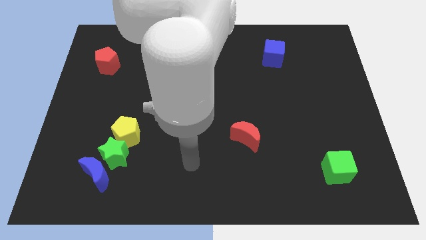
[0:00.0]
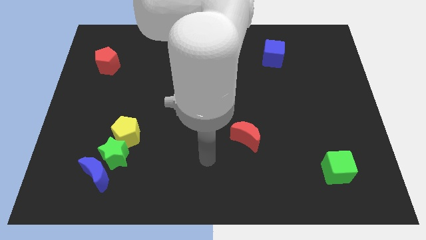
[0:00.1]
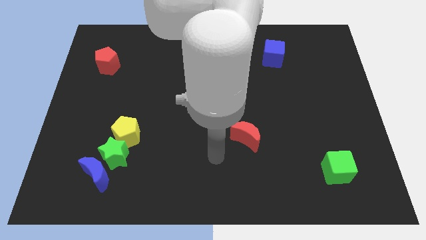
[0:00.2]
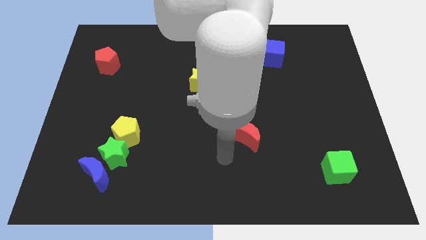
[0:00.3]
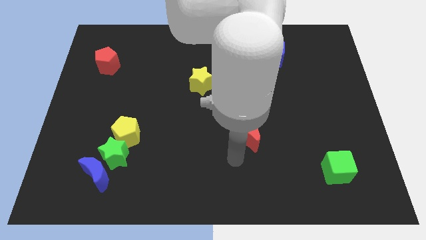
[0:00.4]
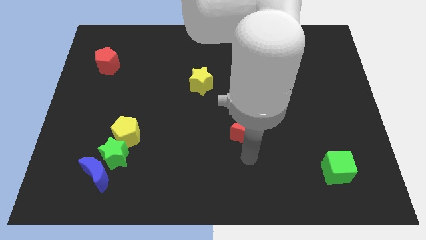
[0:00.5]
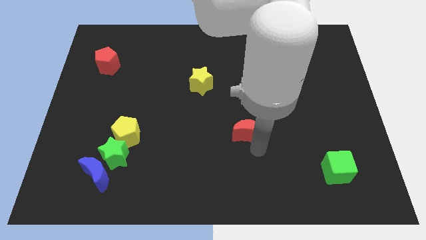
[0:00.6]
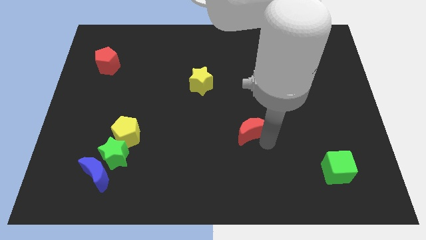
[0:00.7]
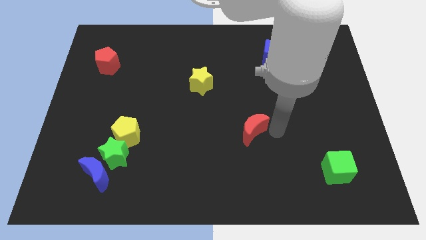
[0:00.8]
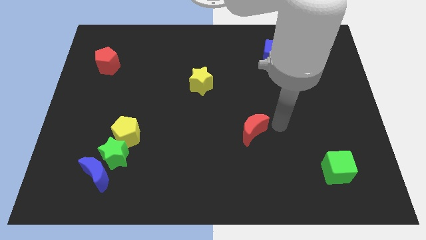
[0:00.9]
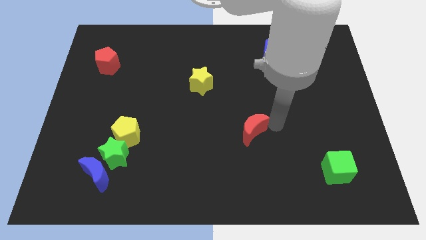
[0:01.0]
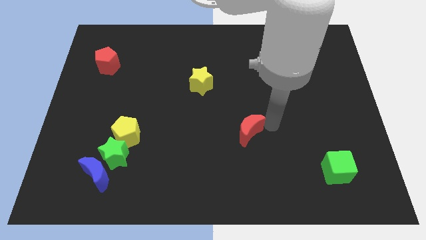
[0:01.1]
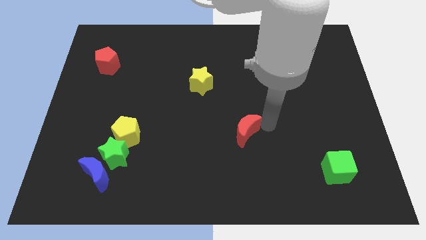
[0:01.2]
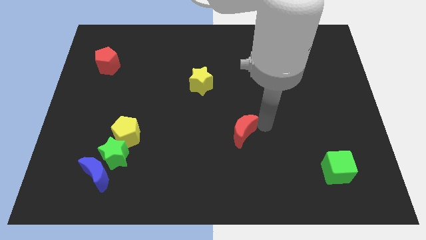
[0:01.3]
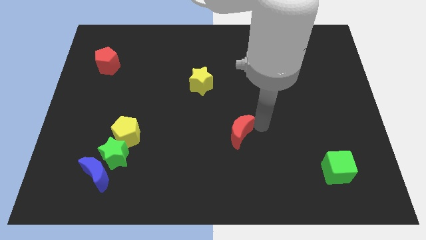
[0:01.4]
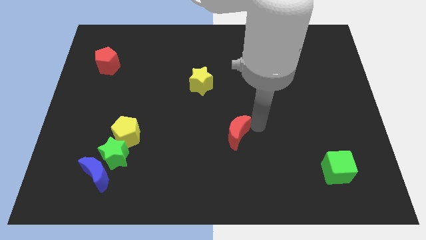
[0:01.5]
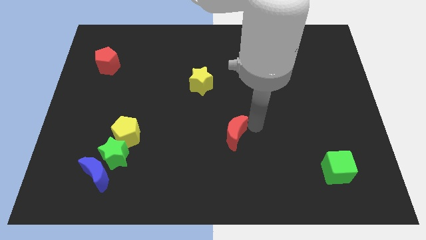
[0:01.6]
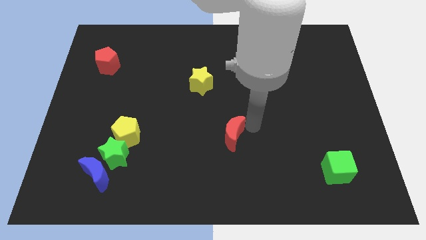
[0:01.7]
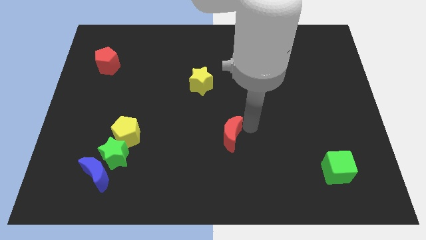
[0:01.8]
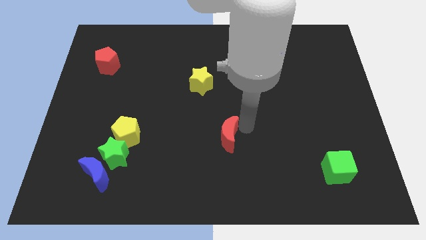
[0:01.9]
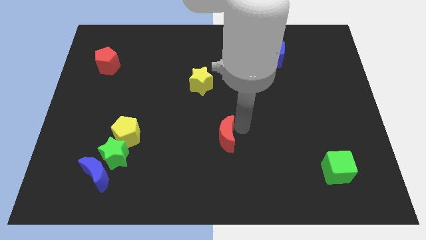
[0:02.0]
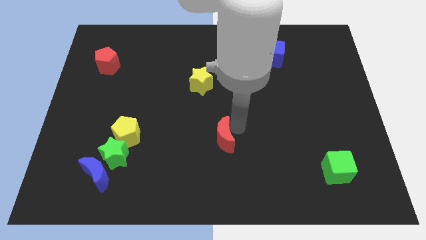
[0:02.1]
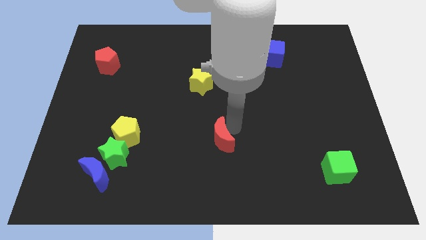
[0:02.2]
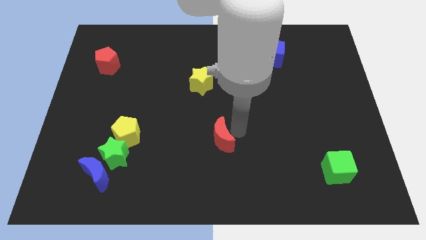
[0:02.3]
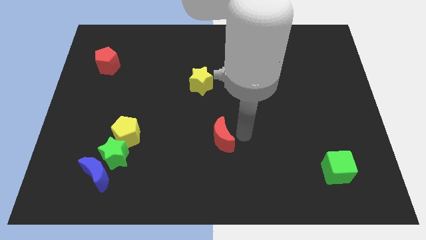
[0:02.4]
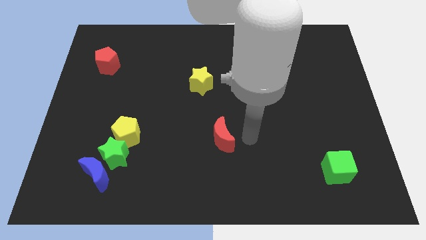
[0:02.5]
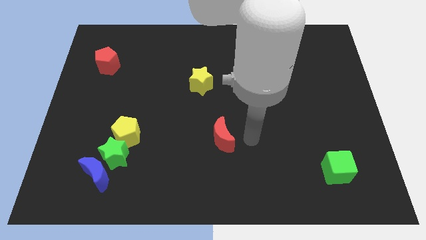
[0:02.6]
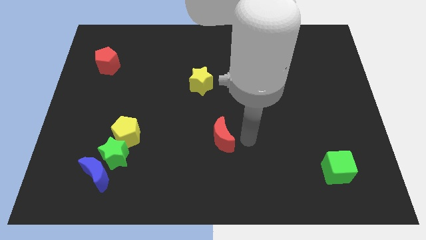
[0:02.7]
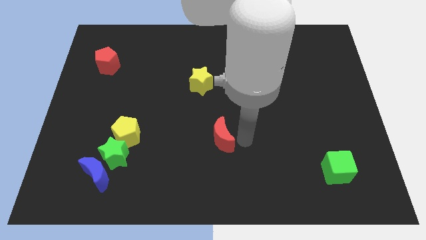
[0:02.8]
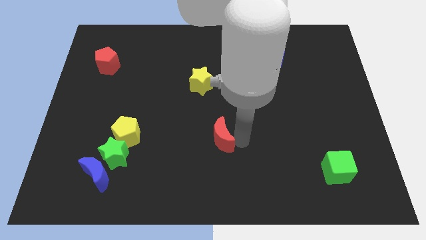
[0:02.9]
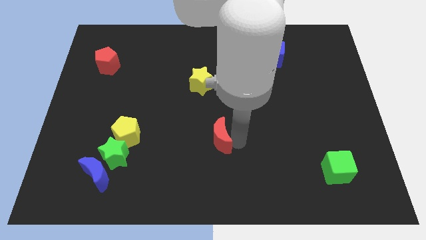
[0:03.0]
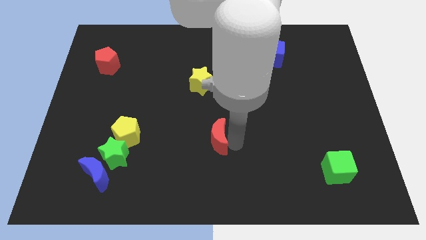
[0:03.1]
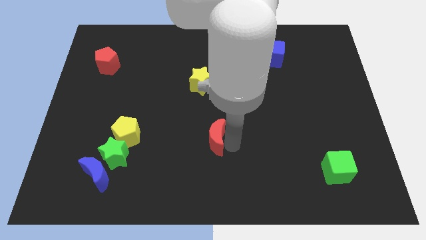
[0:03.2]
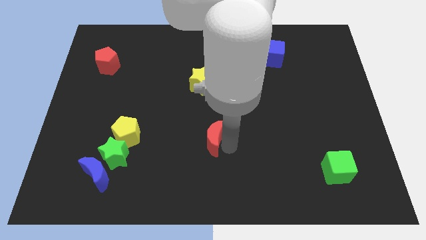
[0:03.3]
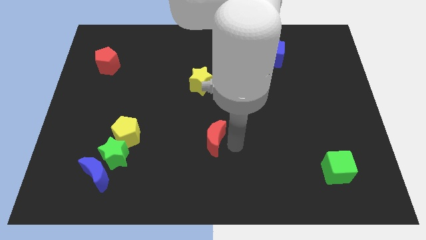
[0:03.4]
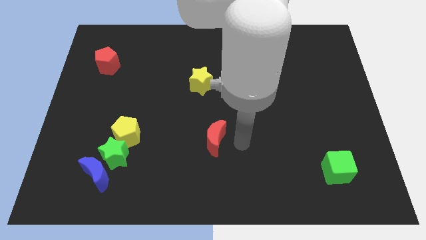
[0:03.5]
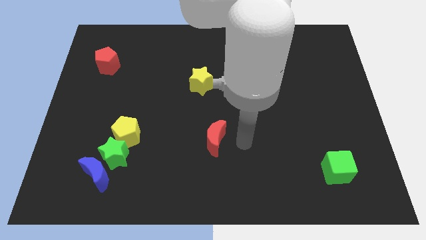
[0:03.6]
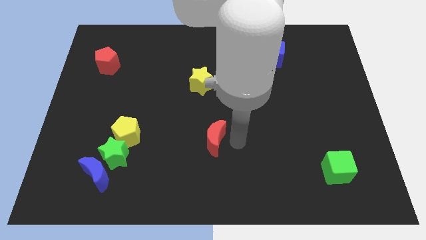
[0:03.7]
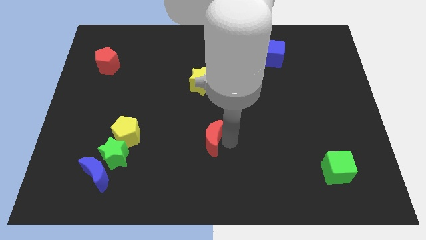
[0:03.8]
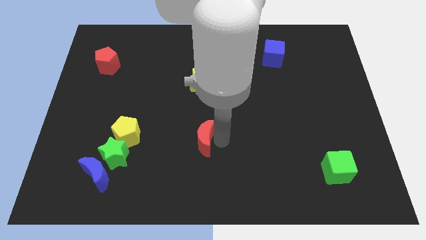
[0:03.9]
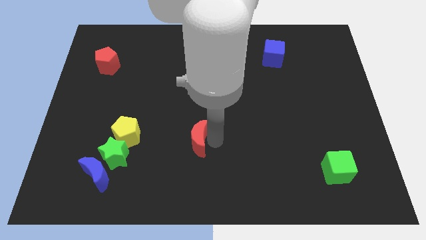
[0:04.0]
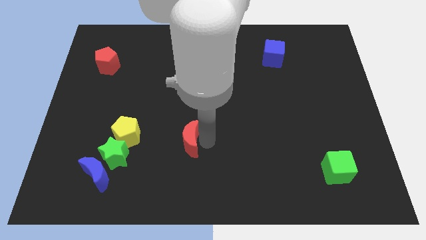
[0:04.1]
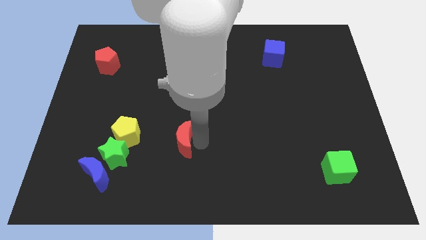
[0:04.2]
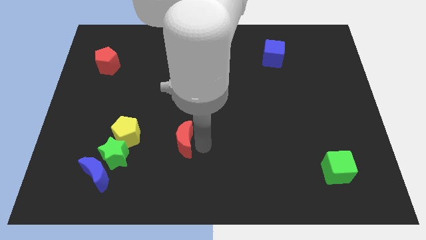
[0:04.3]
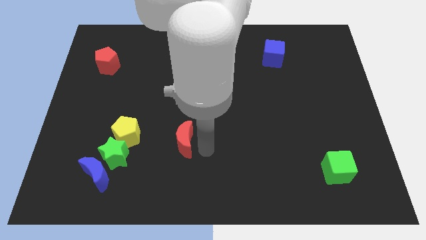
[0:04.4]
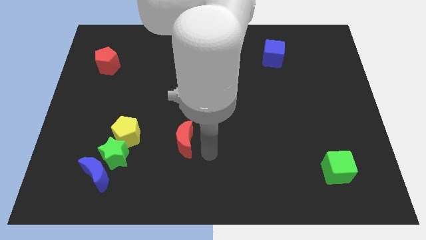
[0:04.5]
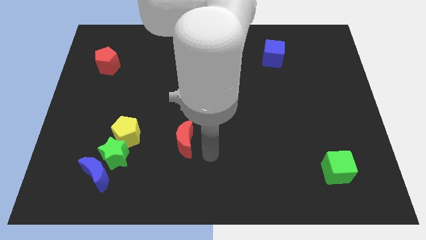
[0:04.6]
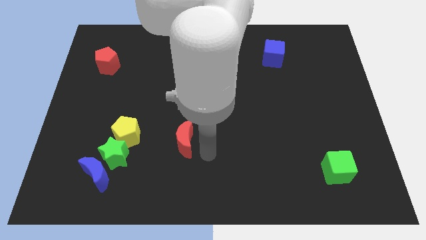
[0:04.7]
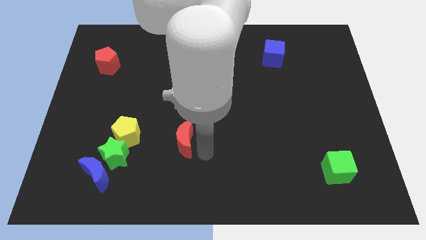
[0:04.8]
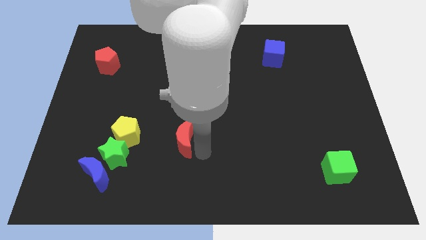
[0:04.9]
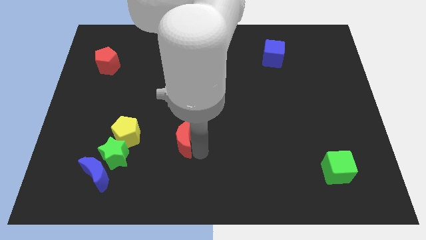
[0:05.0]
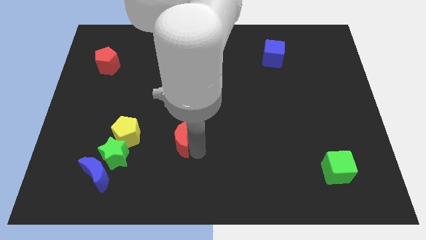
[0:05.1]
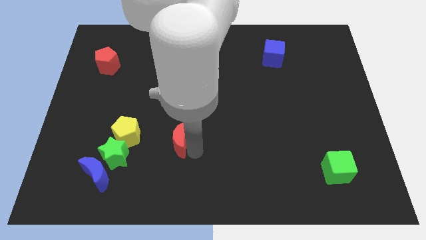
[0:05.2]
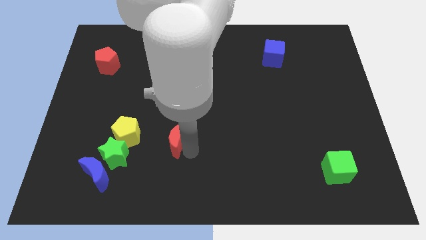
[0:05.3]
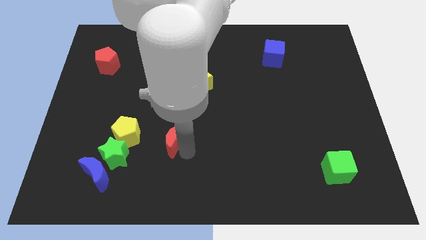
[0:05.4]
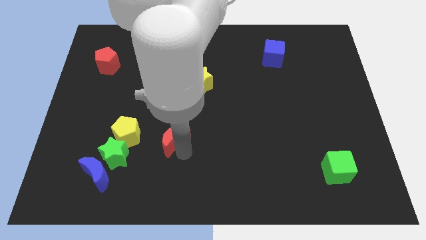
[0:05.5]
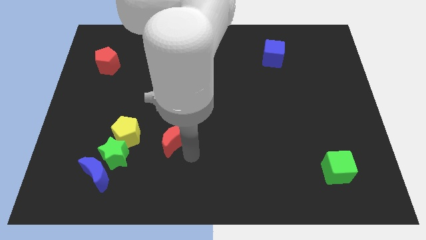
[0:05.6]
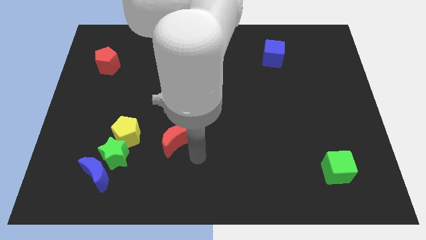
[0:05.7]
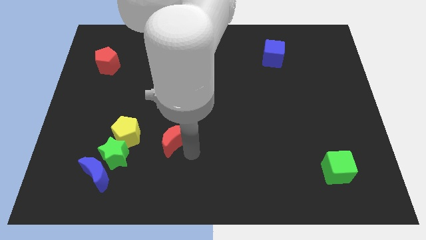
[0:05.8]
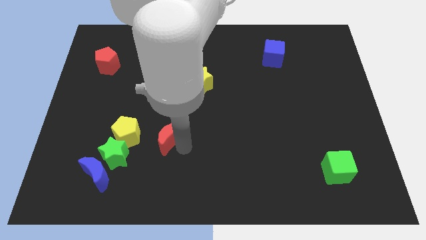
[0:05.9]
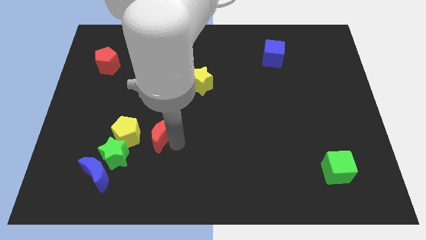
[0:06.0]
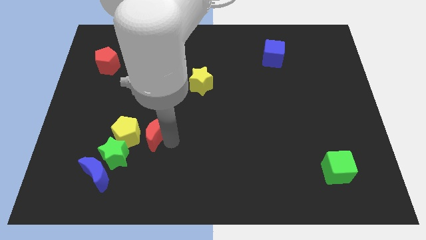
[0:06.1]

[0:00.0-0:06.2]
move the red moon to the left

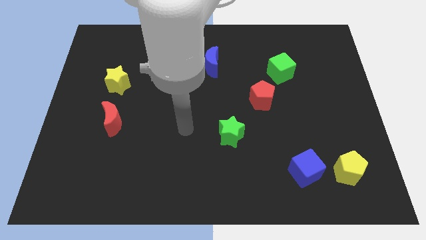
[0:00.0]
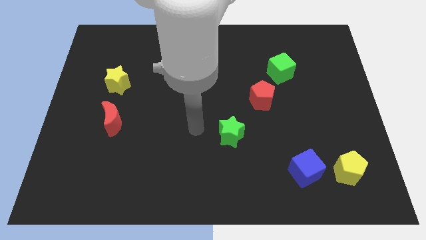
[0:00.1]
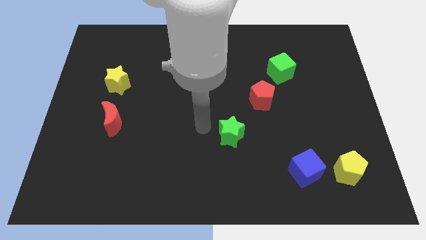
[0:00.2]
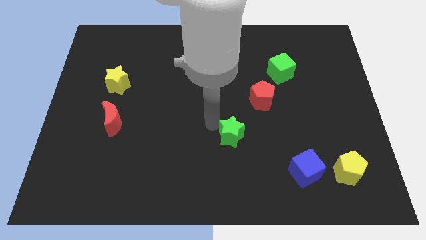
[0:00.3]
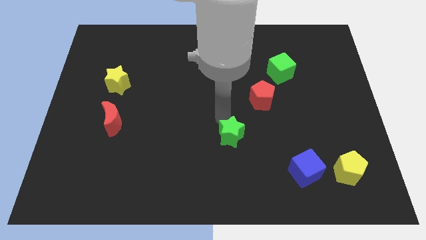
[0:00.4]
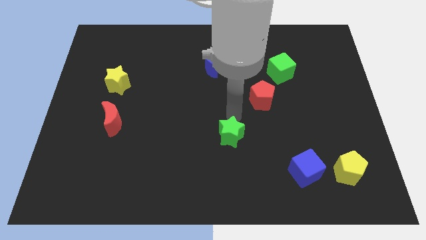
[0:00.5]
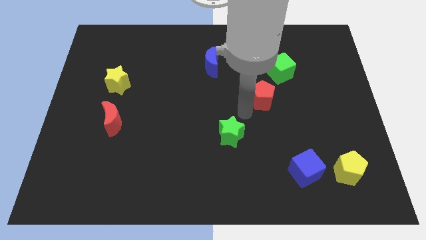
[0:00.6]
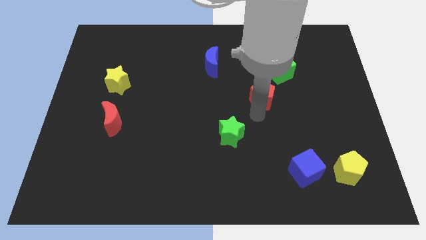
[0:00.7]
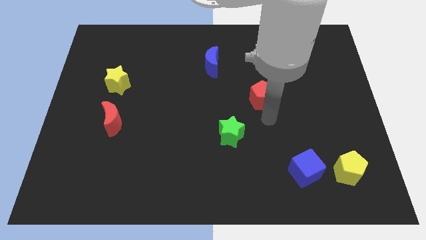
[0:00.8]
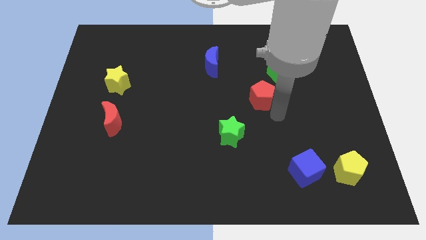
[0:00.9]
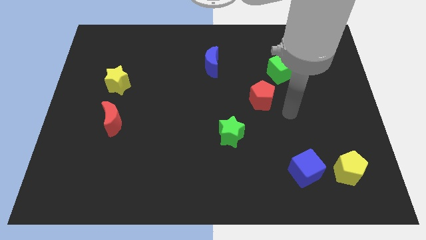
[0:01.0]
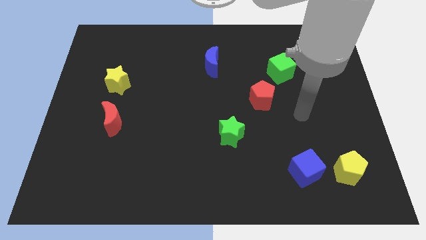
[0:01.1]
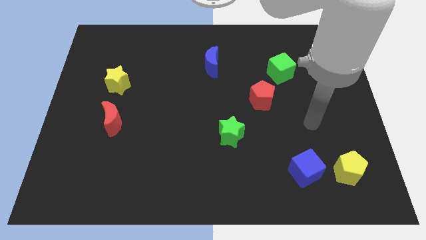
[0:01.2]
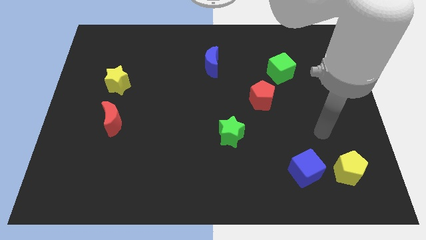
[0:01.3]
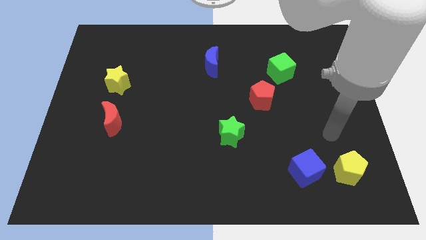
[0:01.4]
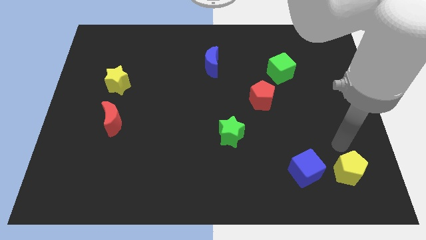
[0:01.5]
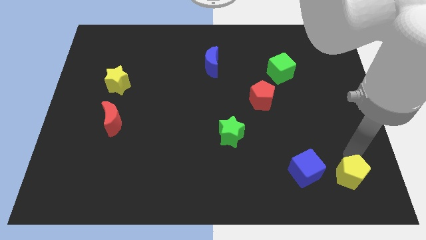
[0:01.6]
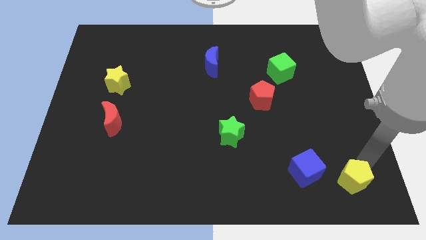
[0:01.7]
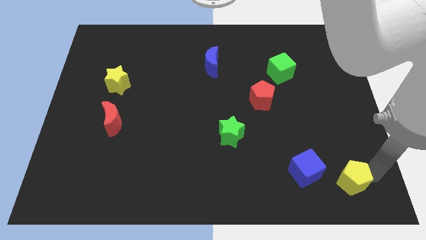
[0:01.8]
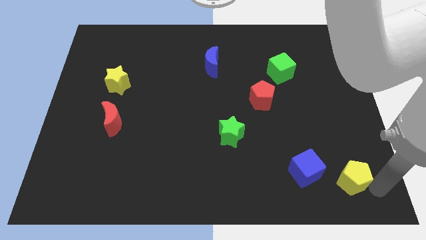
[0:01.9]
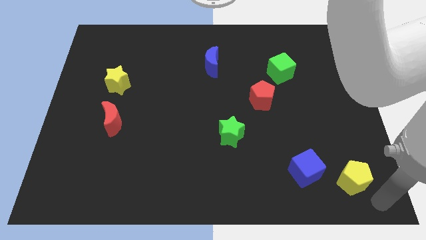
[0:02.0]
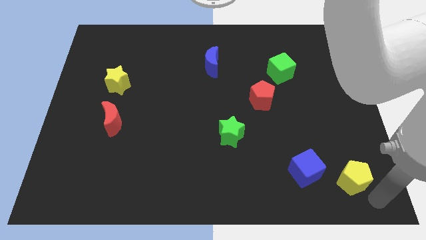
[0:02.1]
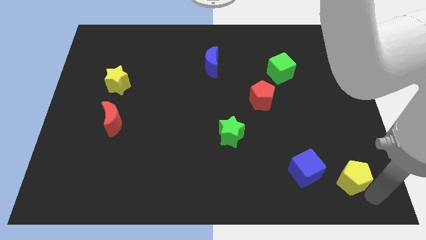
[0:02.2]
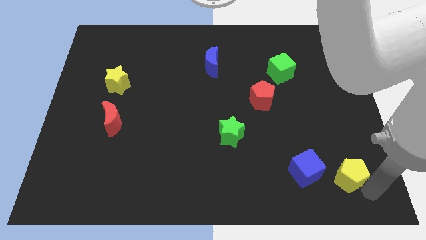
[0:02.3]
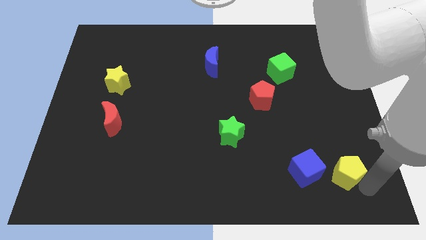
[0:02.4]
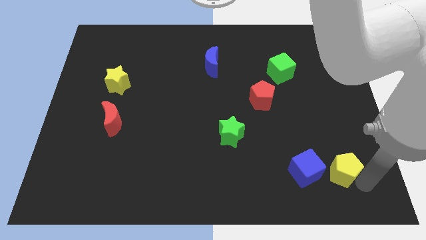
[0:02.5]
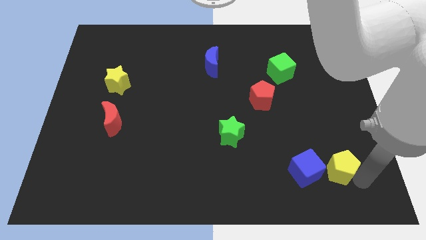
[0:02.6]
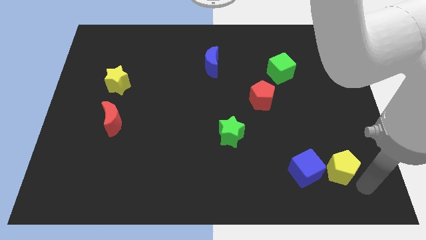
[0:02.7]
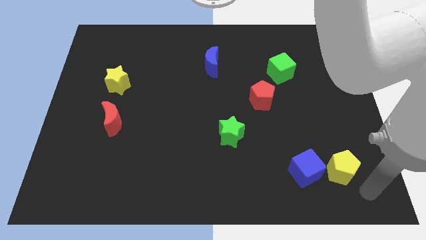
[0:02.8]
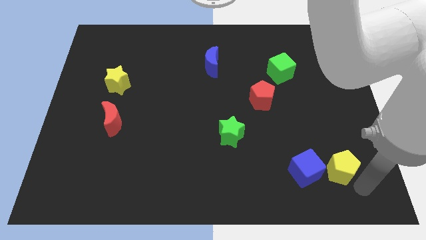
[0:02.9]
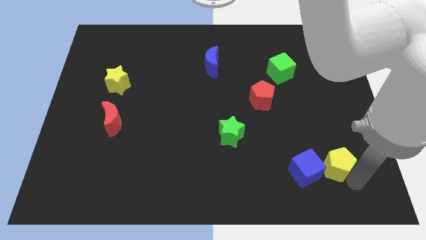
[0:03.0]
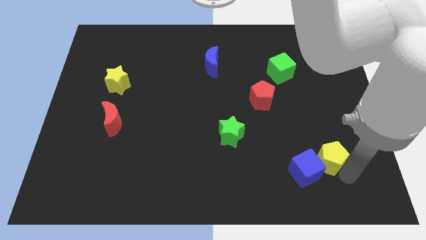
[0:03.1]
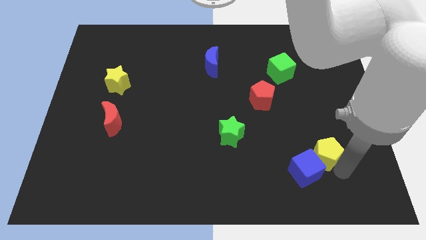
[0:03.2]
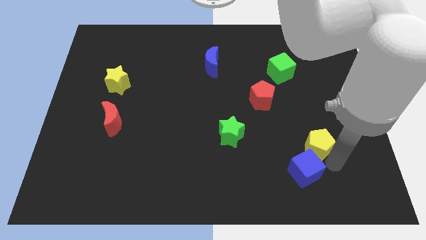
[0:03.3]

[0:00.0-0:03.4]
slightly push the yellow pentagon up and to the left diagonally
